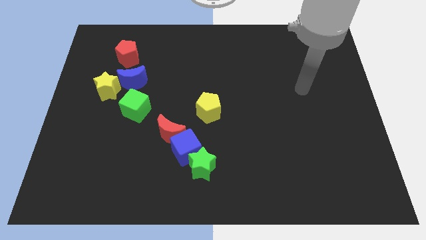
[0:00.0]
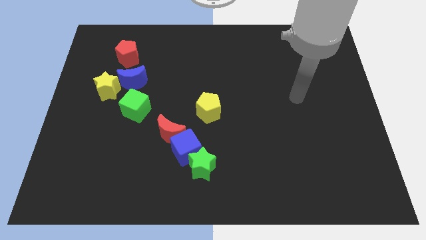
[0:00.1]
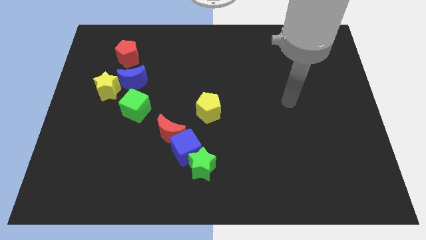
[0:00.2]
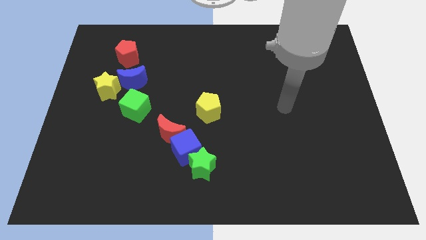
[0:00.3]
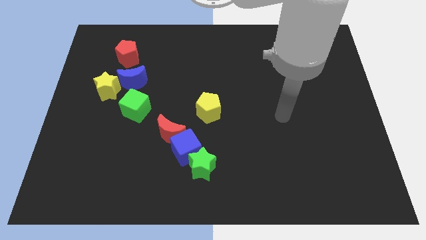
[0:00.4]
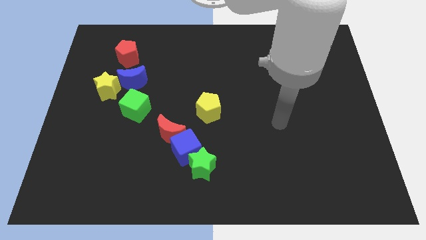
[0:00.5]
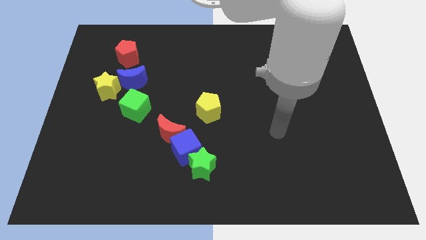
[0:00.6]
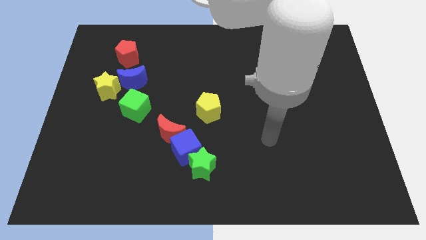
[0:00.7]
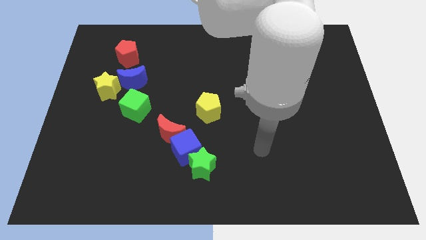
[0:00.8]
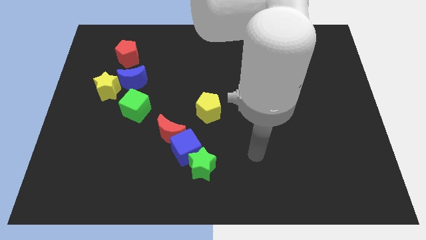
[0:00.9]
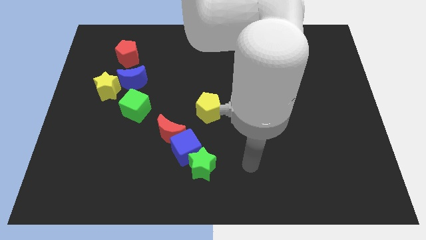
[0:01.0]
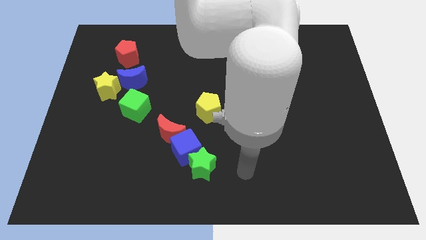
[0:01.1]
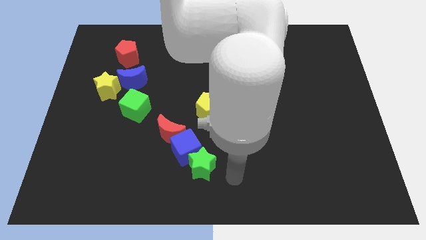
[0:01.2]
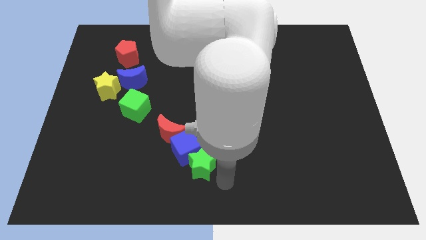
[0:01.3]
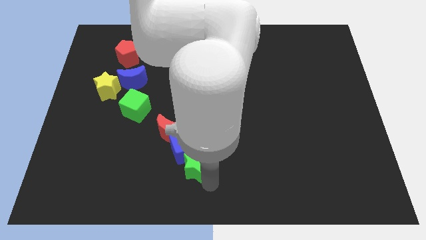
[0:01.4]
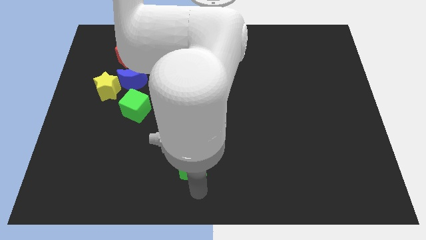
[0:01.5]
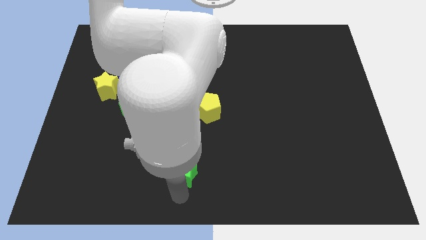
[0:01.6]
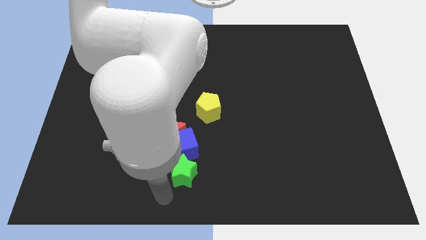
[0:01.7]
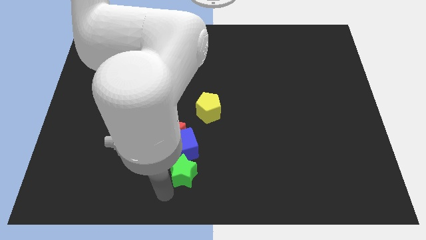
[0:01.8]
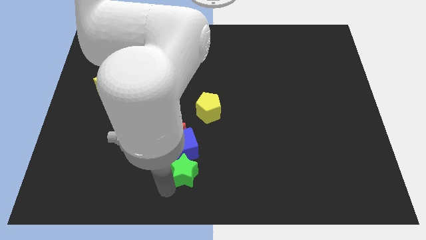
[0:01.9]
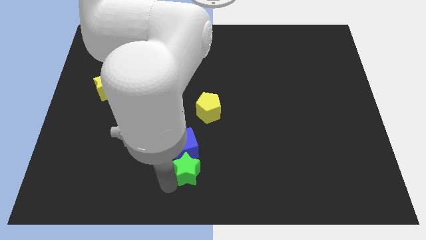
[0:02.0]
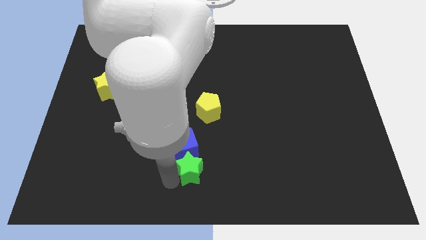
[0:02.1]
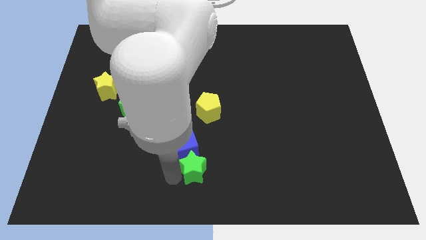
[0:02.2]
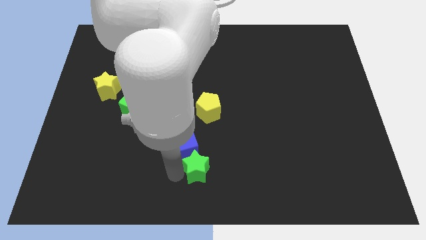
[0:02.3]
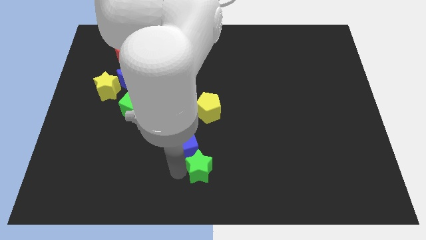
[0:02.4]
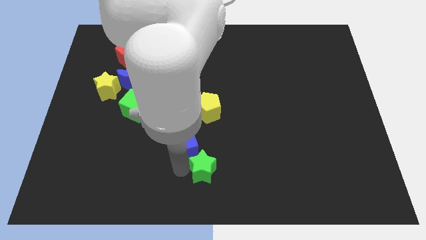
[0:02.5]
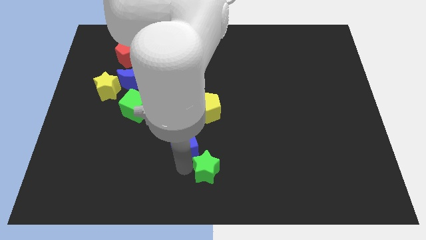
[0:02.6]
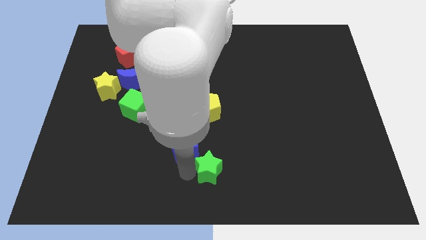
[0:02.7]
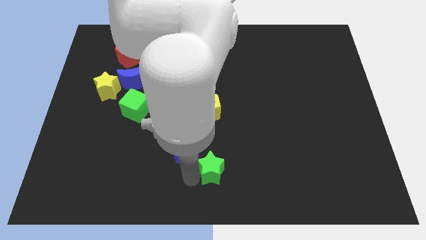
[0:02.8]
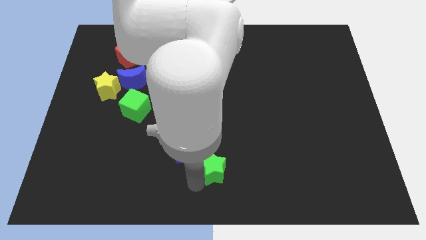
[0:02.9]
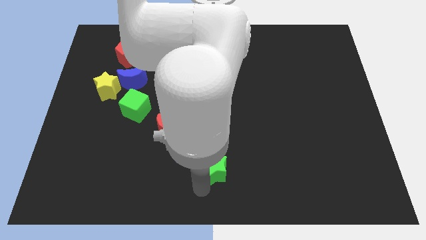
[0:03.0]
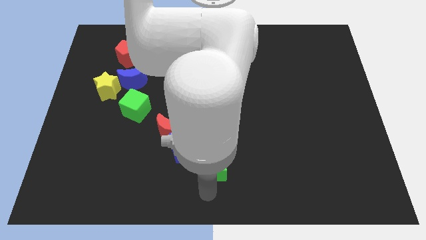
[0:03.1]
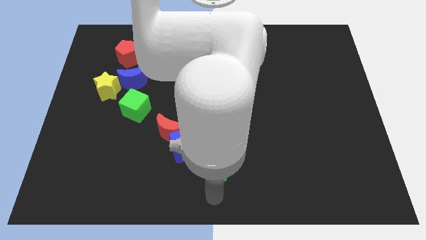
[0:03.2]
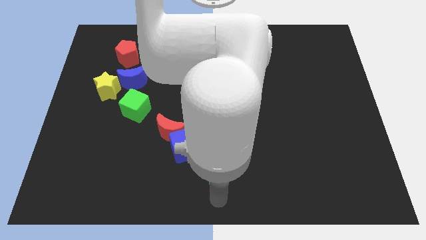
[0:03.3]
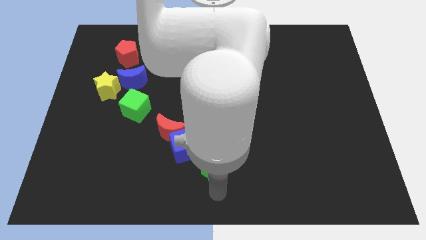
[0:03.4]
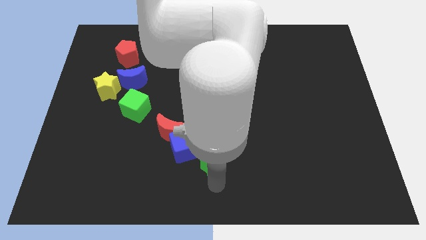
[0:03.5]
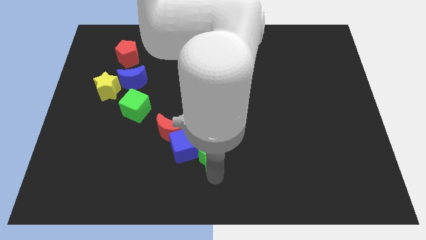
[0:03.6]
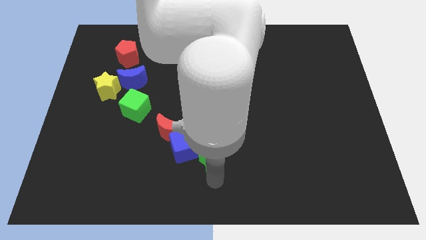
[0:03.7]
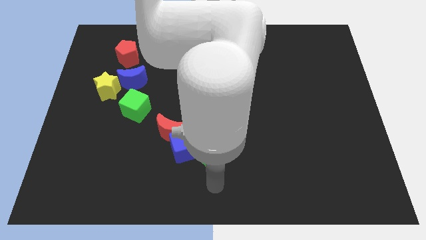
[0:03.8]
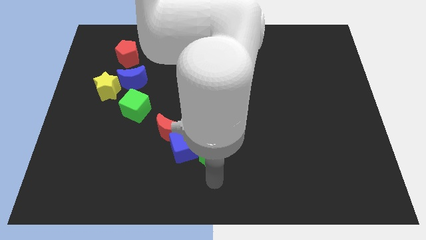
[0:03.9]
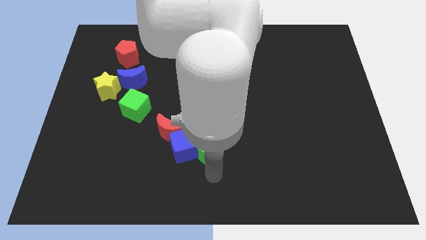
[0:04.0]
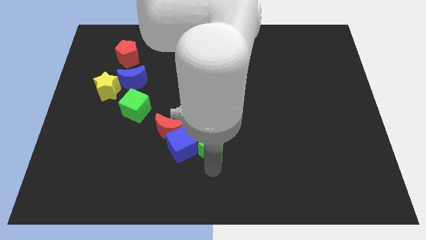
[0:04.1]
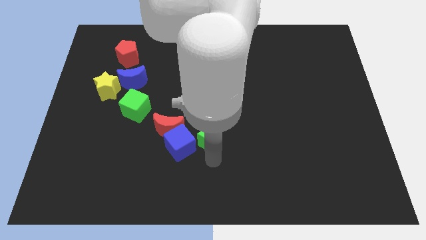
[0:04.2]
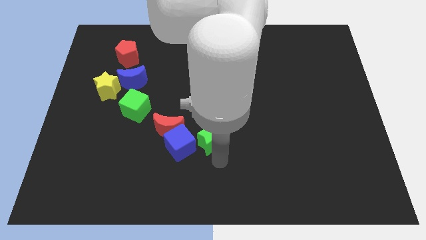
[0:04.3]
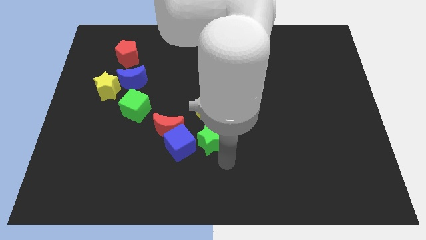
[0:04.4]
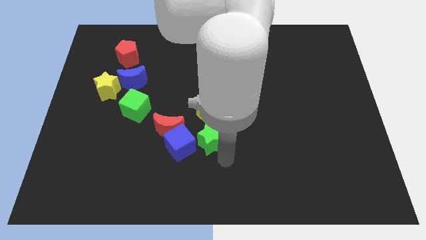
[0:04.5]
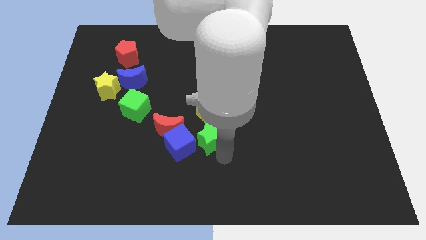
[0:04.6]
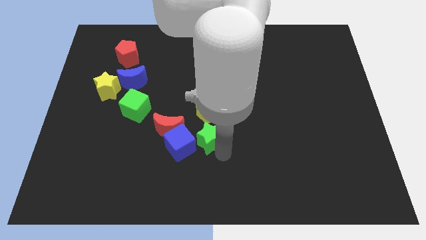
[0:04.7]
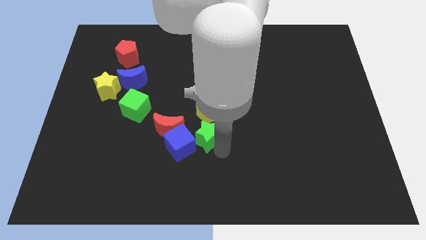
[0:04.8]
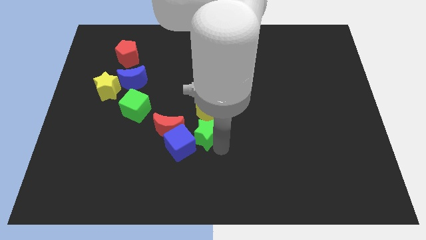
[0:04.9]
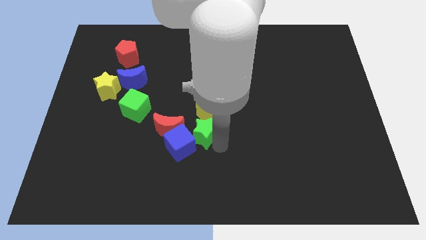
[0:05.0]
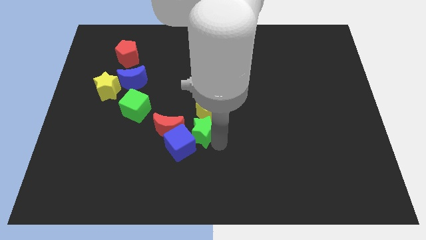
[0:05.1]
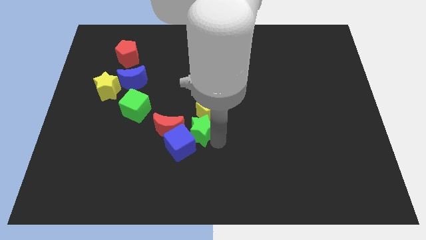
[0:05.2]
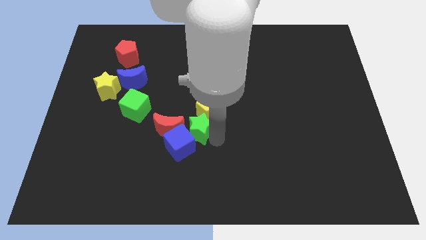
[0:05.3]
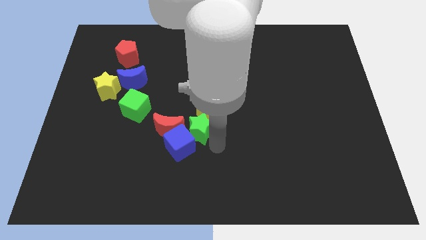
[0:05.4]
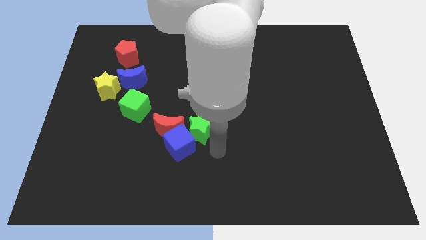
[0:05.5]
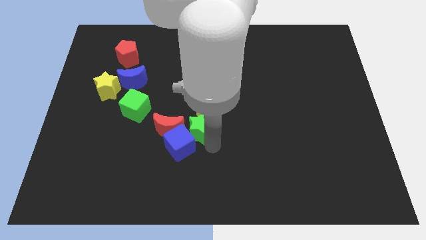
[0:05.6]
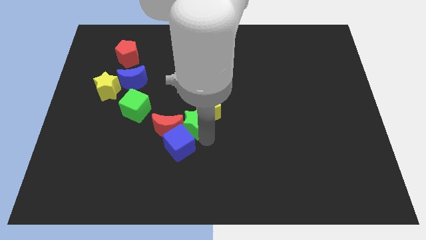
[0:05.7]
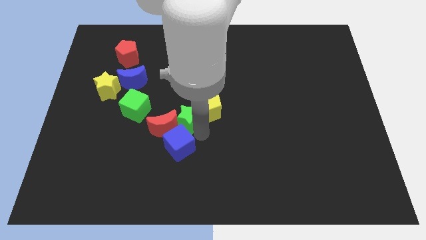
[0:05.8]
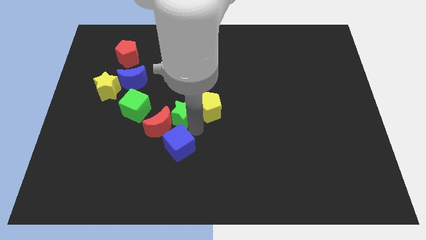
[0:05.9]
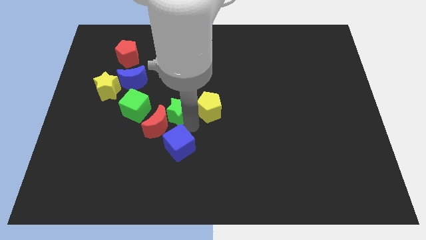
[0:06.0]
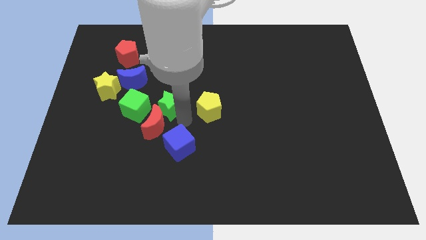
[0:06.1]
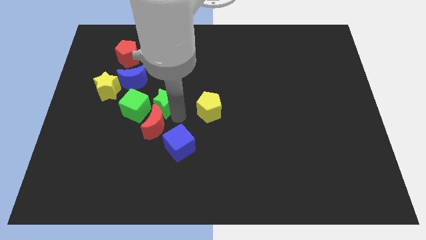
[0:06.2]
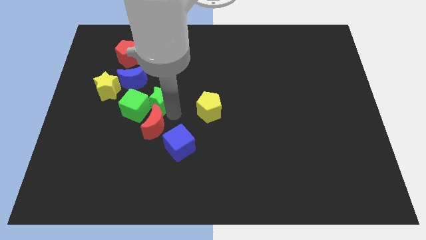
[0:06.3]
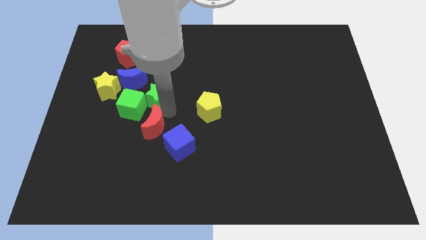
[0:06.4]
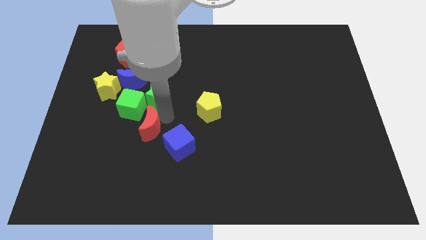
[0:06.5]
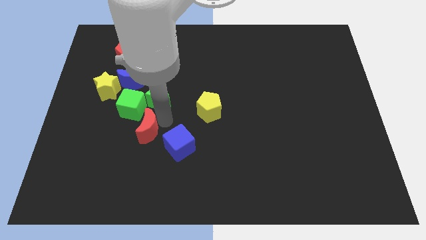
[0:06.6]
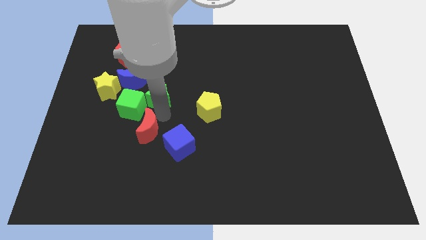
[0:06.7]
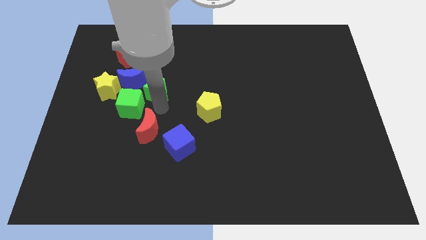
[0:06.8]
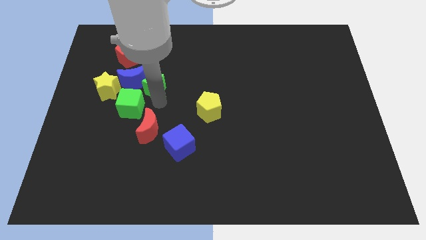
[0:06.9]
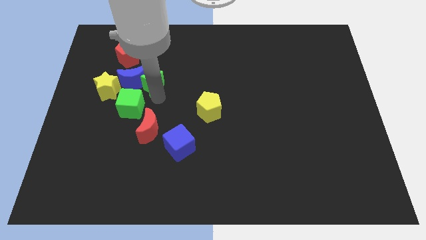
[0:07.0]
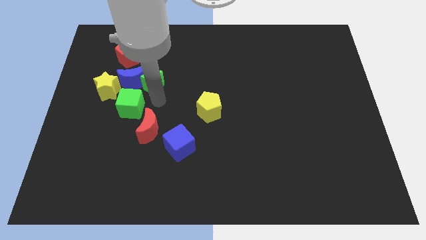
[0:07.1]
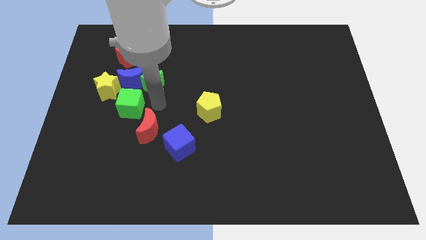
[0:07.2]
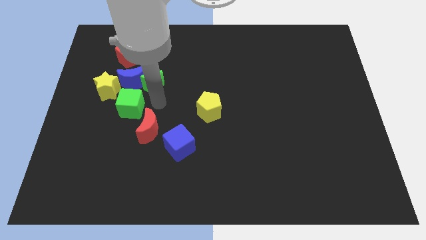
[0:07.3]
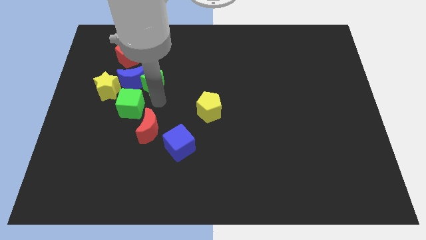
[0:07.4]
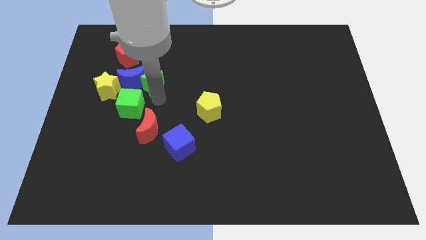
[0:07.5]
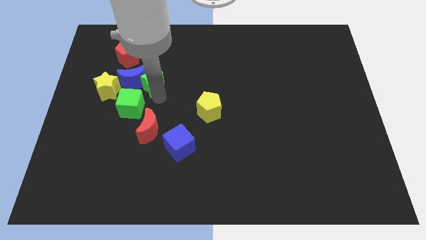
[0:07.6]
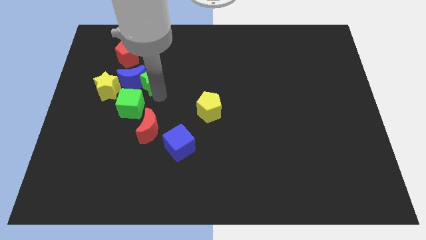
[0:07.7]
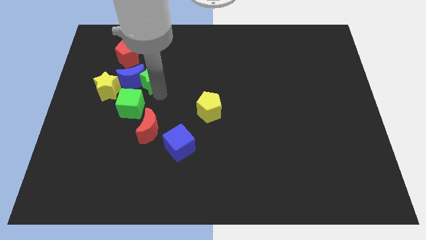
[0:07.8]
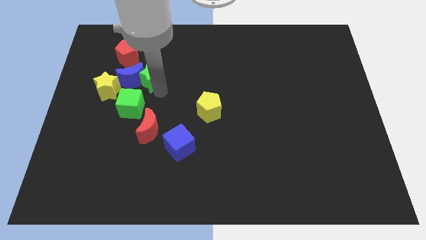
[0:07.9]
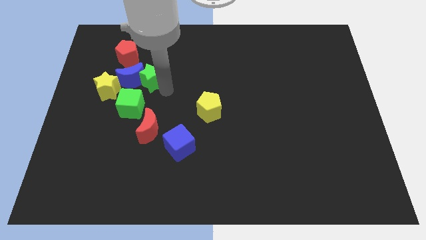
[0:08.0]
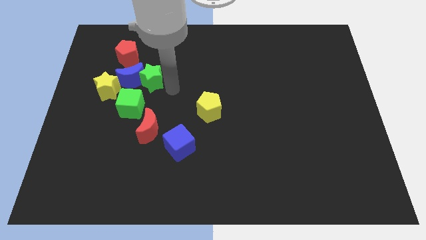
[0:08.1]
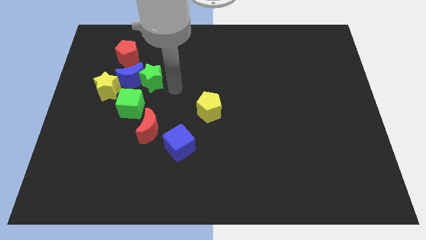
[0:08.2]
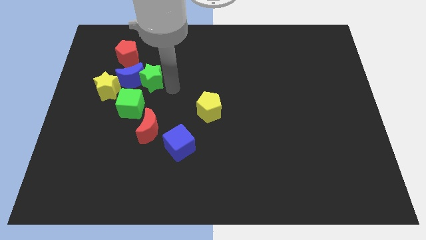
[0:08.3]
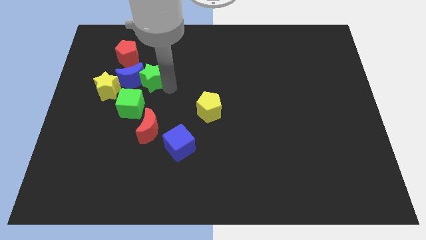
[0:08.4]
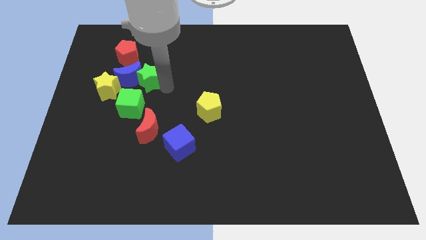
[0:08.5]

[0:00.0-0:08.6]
push the green star to the top right side of the yellow star
